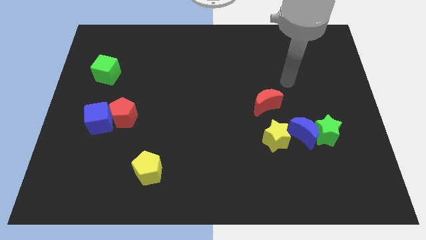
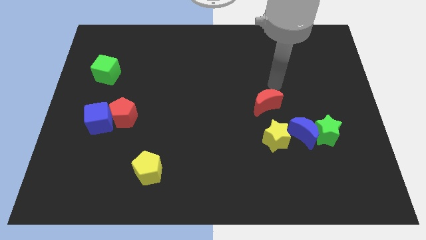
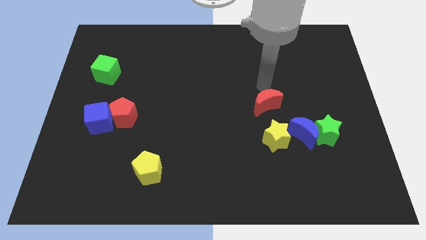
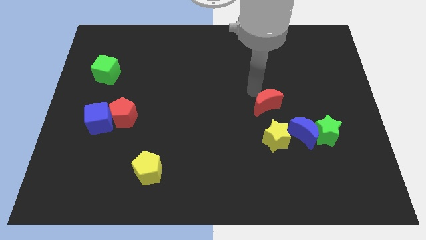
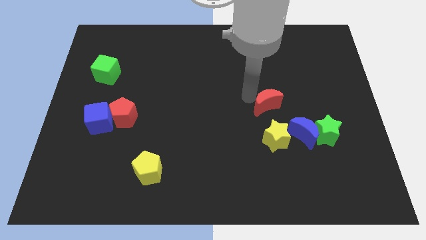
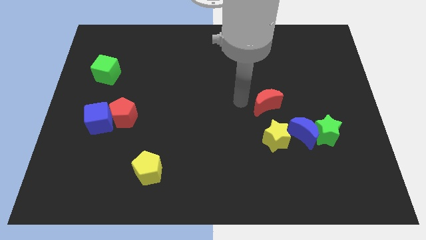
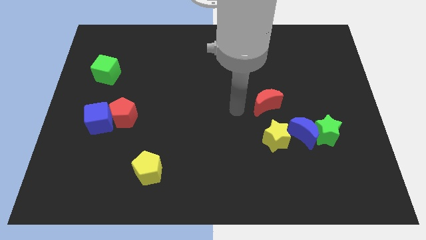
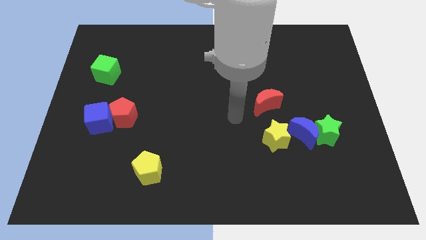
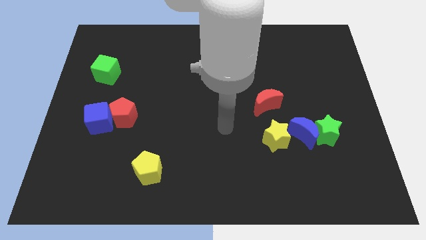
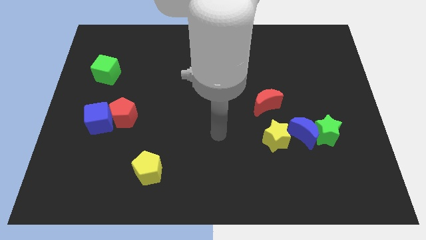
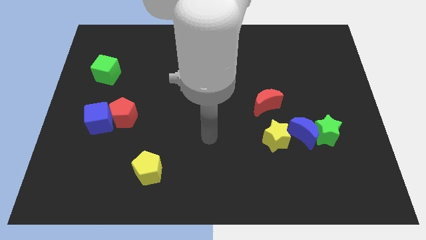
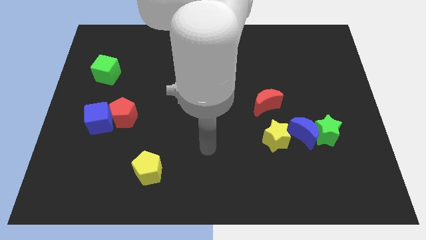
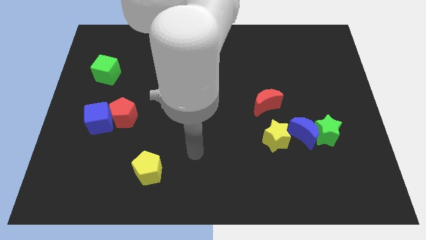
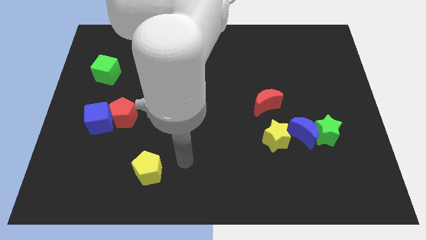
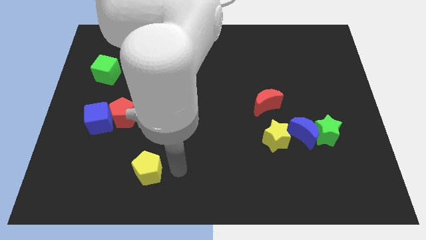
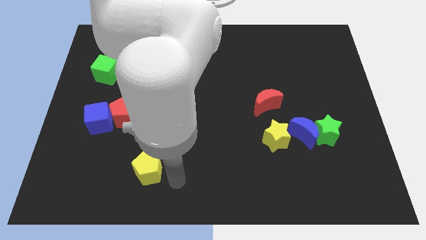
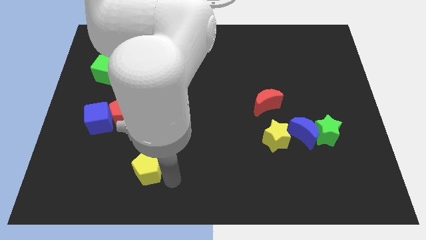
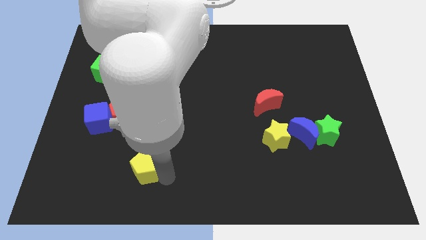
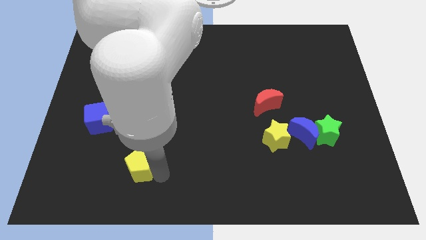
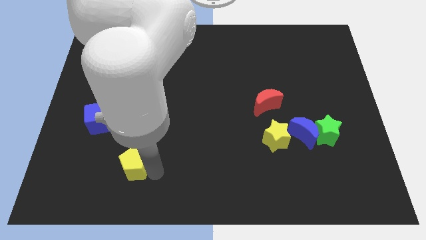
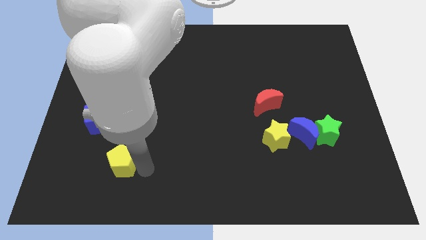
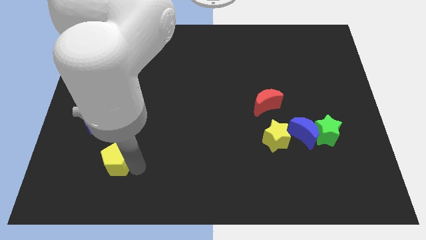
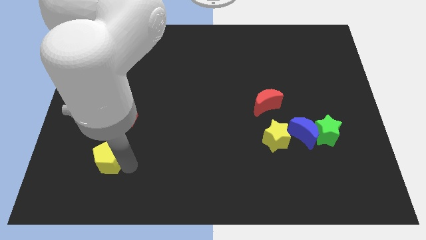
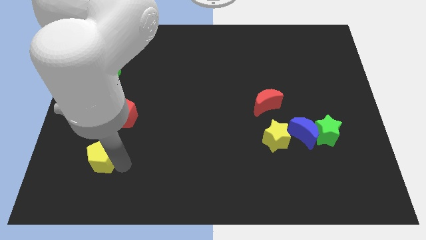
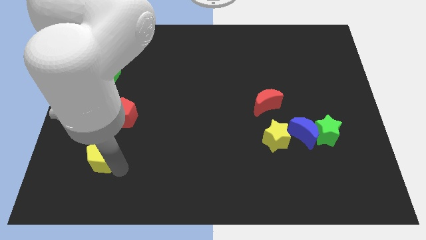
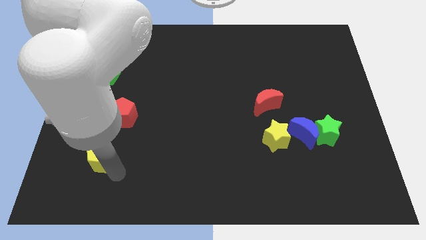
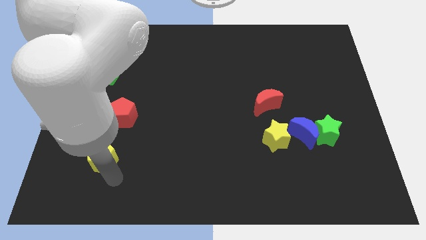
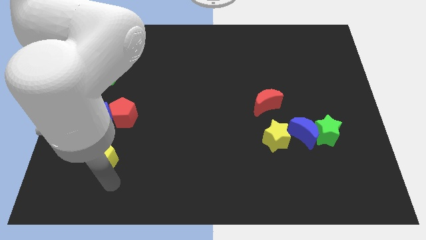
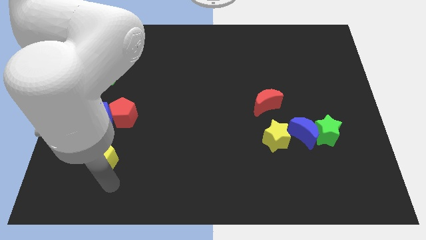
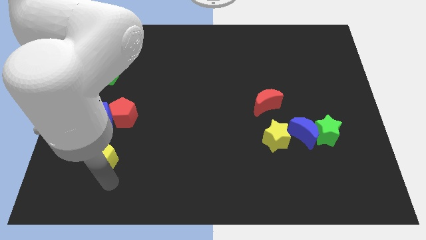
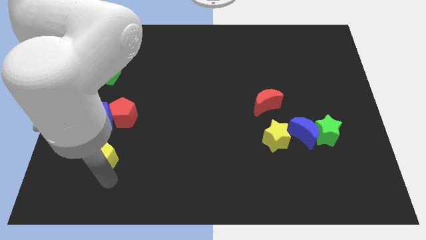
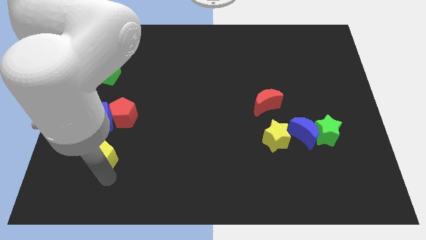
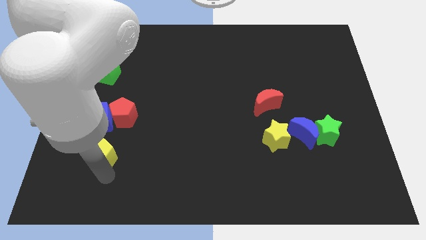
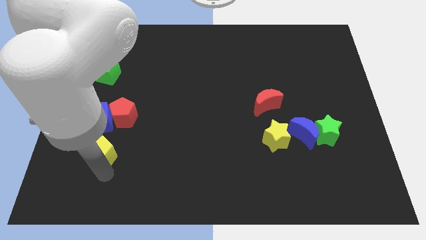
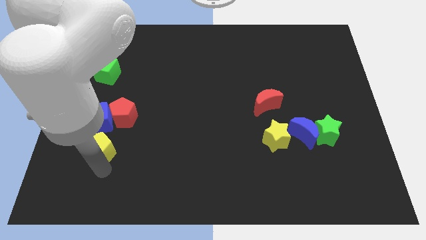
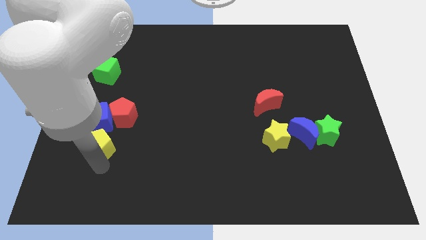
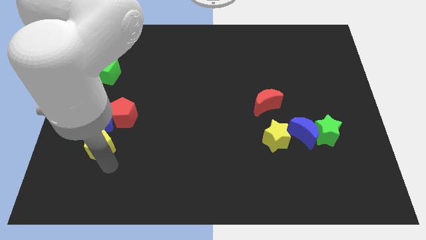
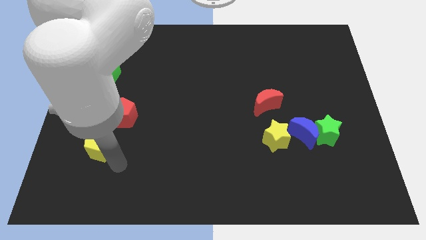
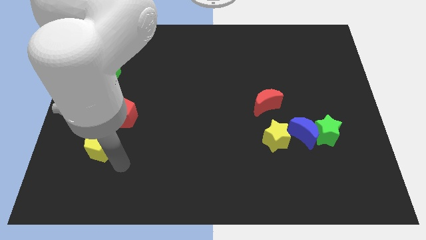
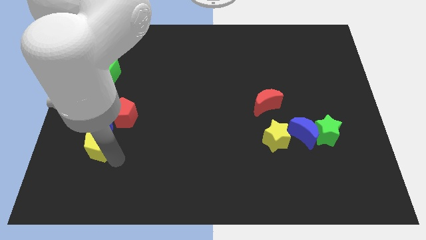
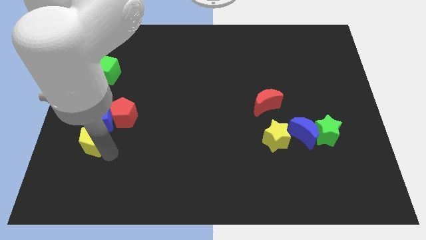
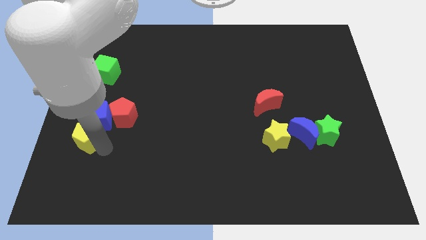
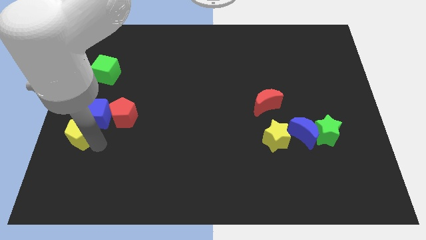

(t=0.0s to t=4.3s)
push the yellow pentagon to the left side of the board

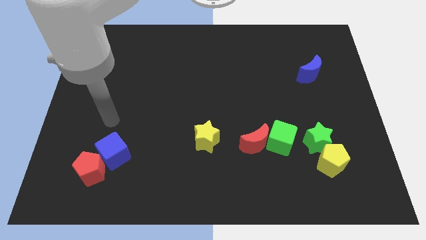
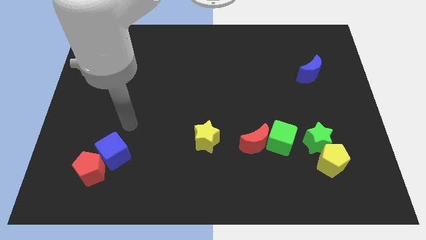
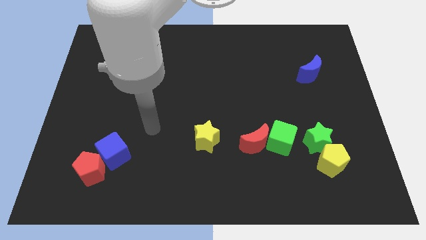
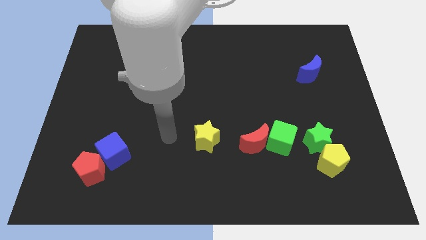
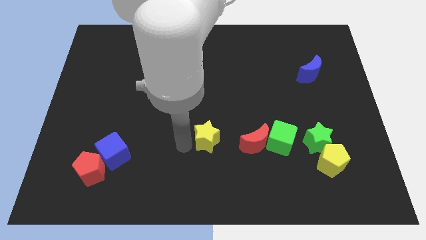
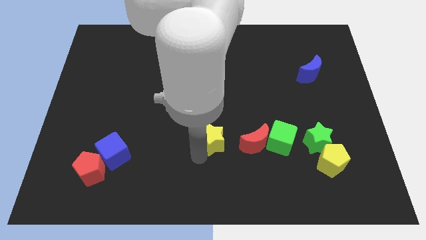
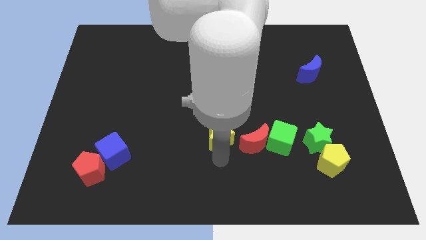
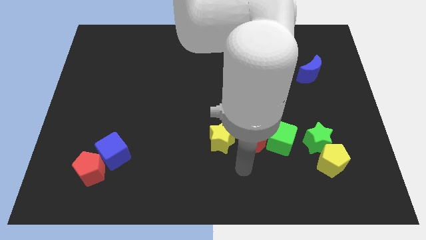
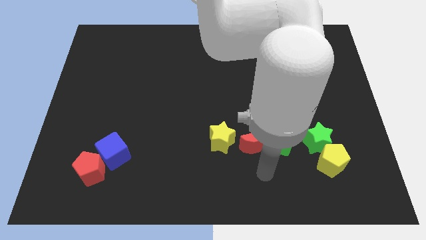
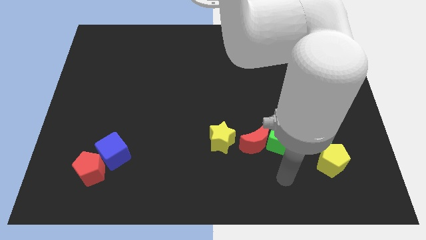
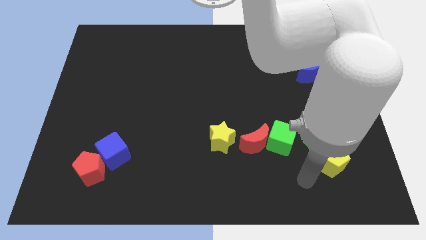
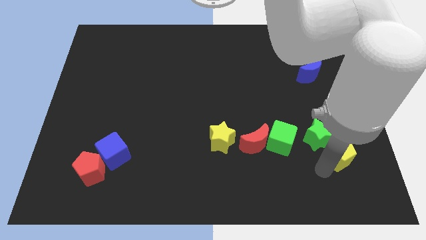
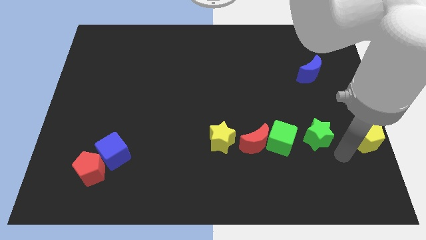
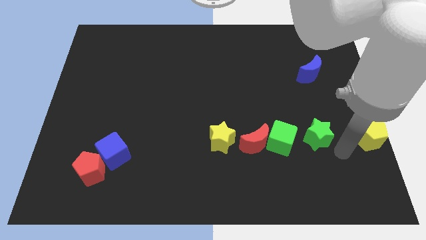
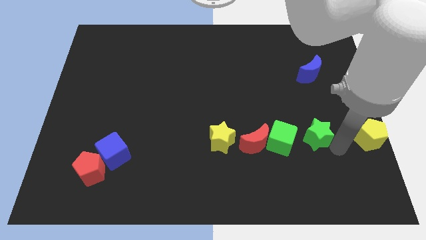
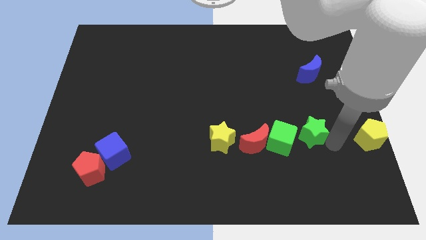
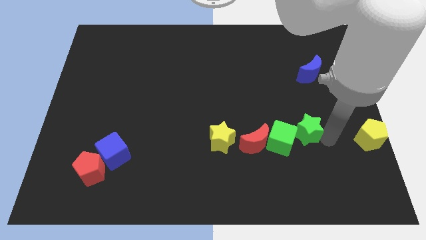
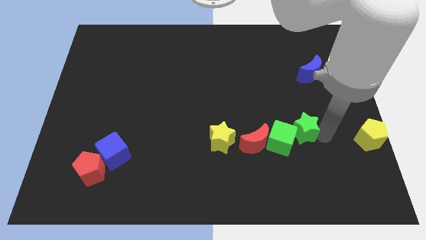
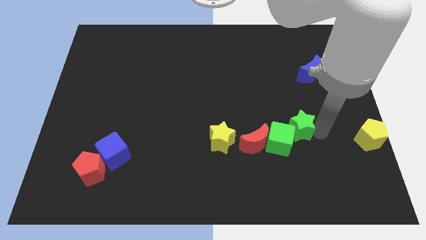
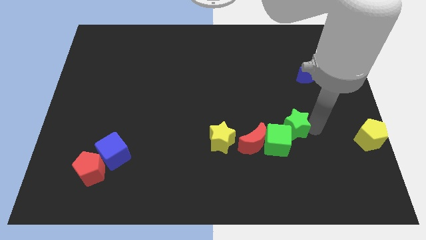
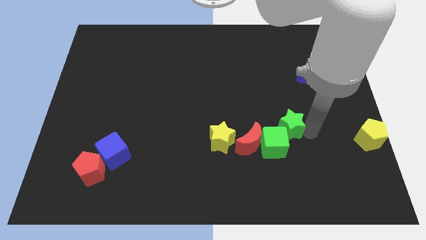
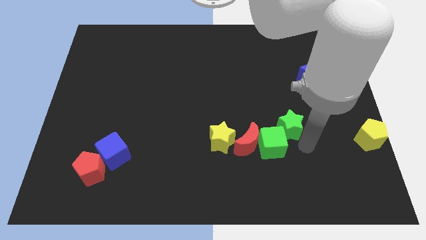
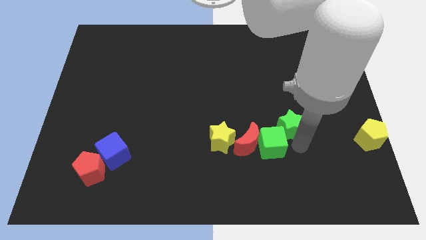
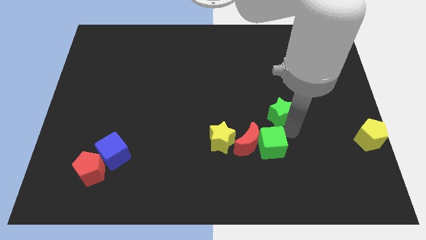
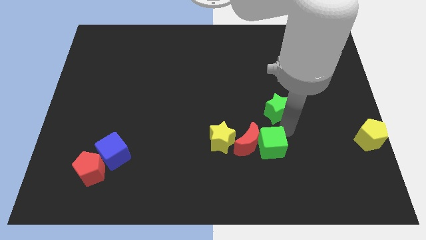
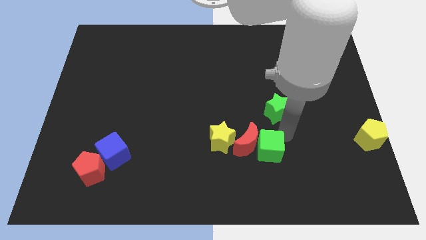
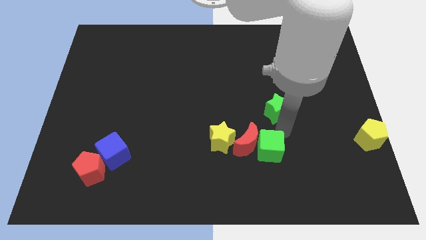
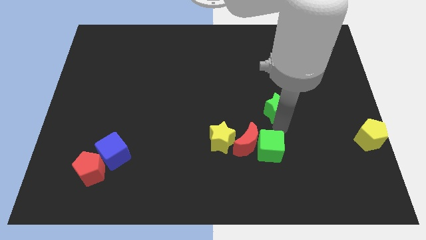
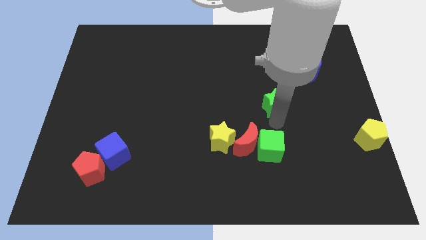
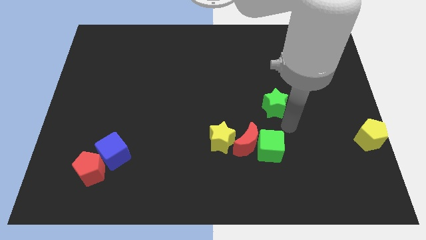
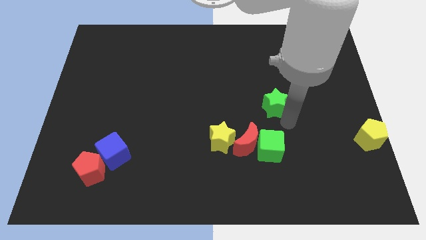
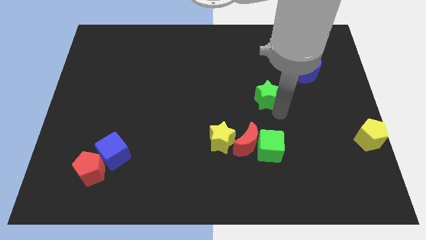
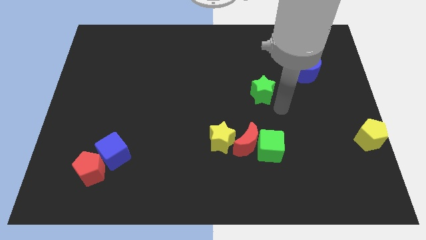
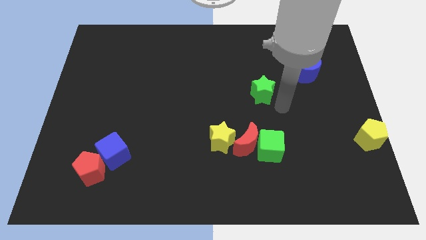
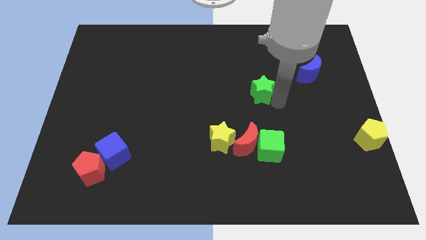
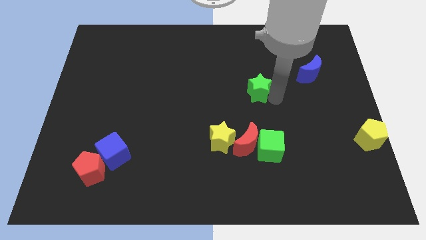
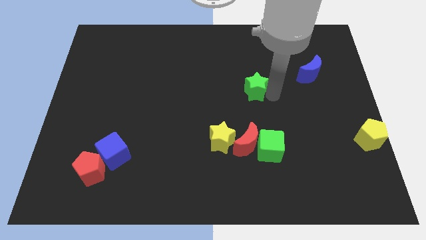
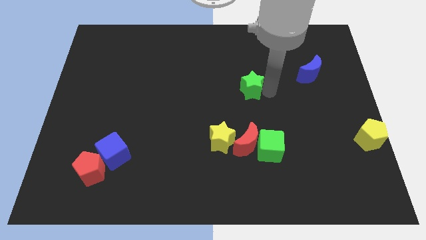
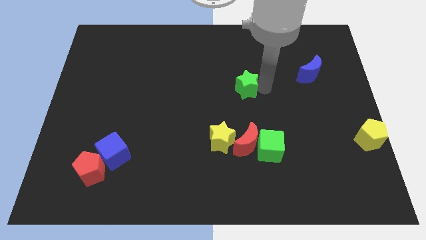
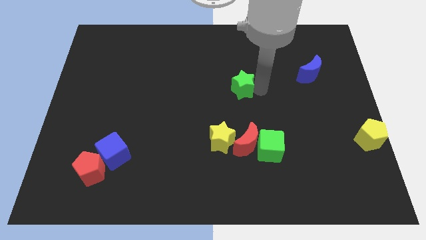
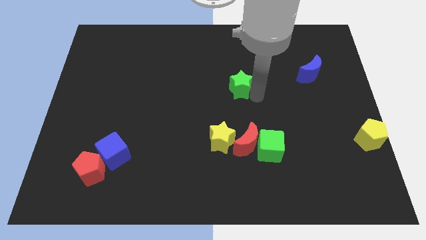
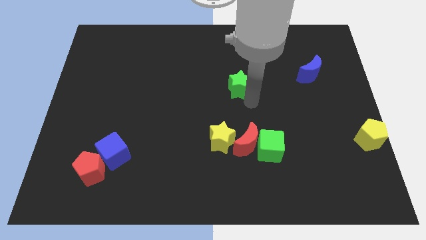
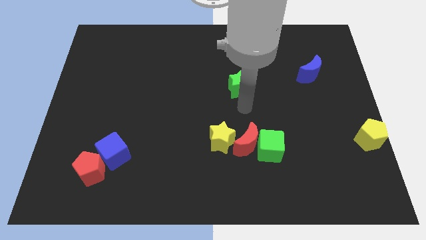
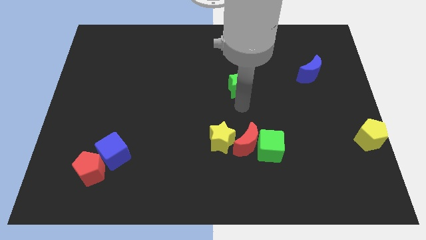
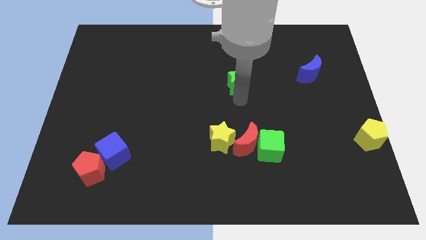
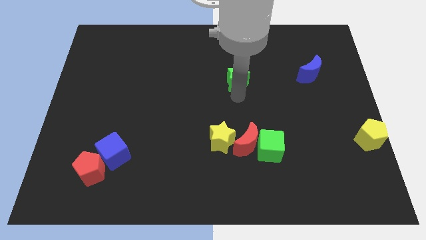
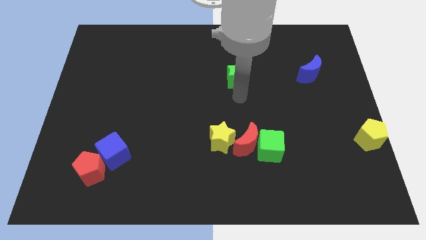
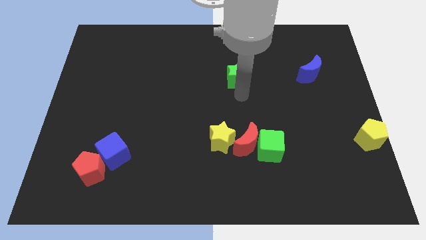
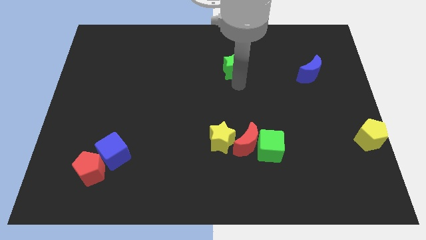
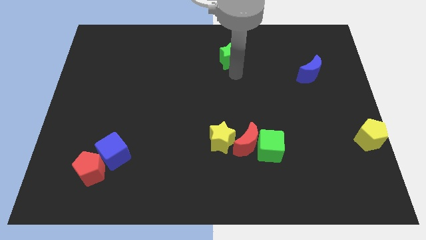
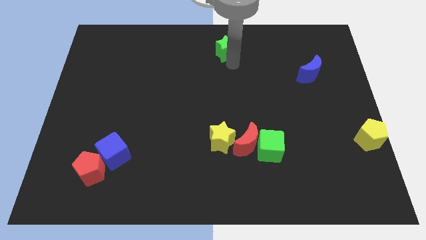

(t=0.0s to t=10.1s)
put the green star to the top side
